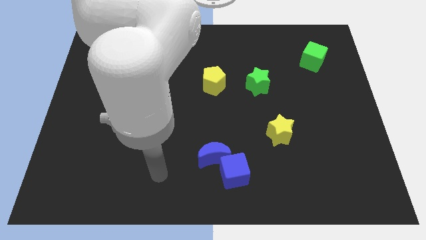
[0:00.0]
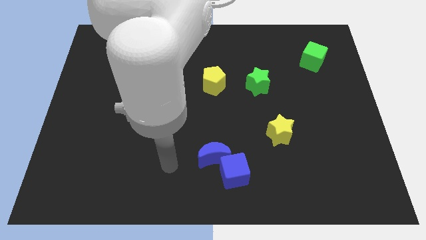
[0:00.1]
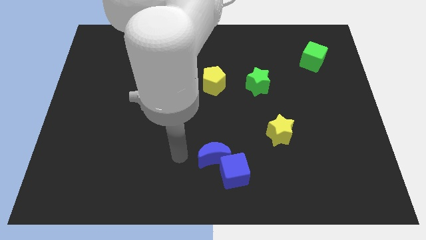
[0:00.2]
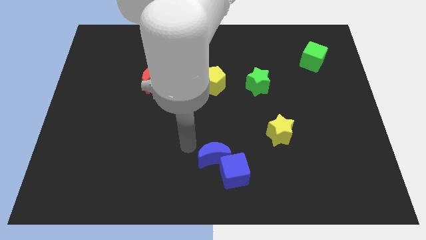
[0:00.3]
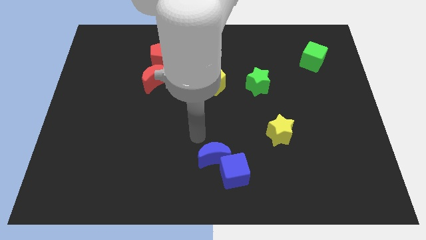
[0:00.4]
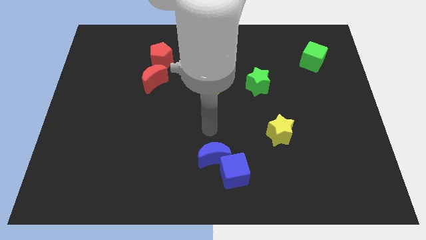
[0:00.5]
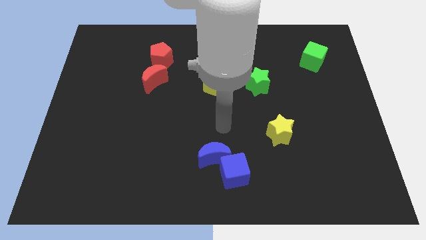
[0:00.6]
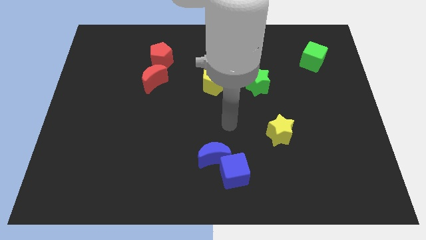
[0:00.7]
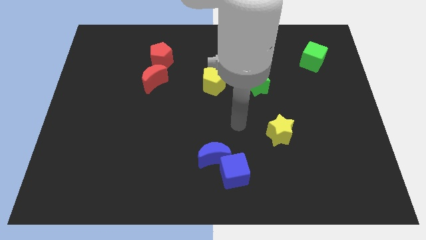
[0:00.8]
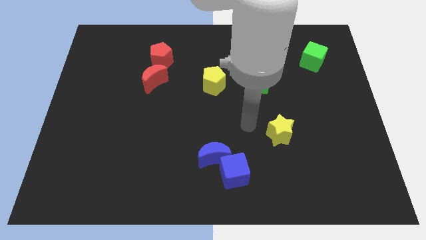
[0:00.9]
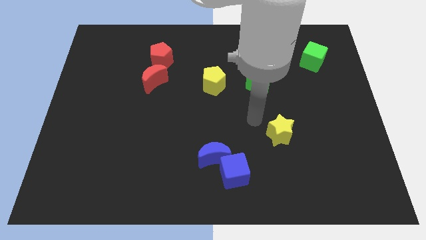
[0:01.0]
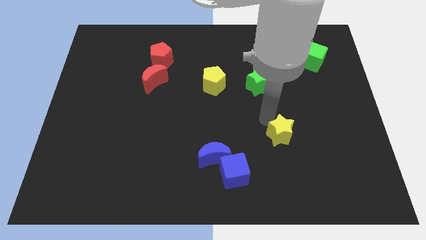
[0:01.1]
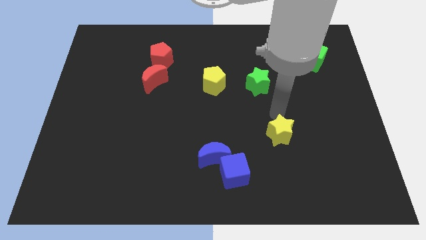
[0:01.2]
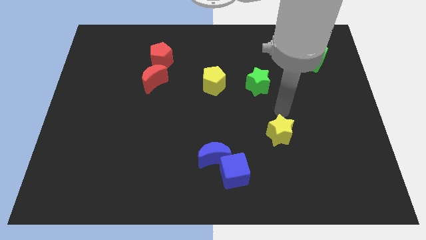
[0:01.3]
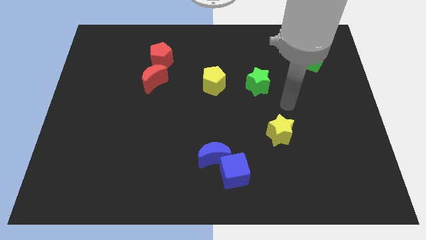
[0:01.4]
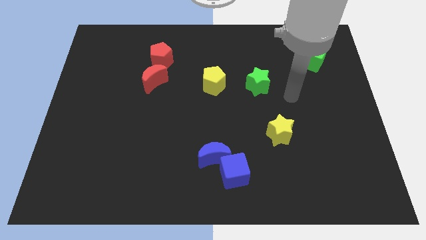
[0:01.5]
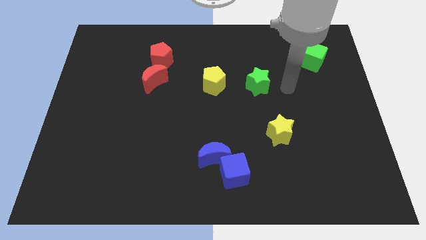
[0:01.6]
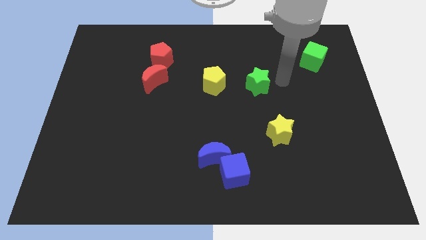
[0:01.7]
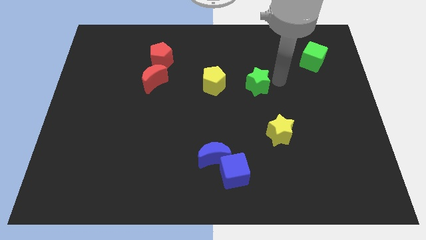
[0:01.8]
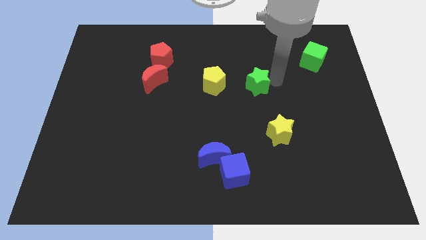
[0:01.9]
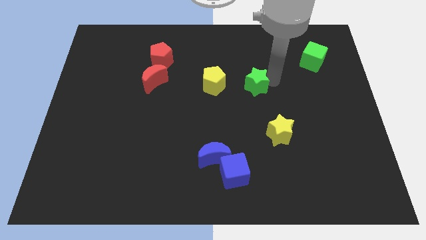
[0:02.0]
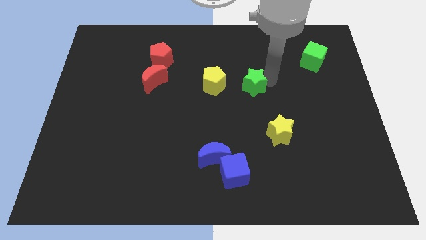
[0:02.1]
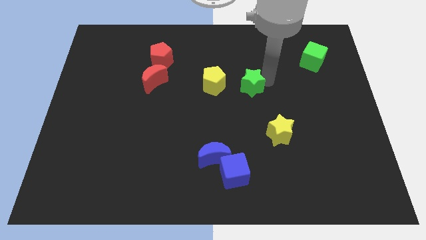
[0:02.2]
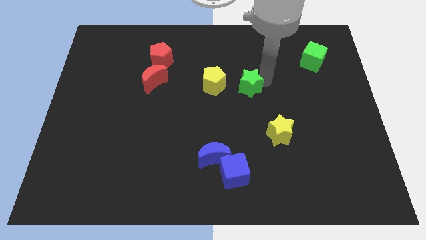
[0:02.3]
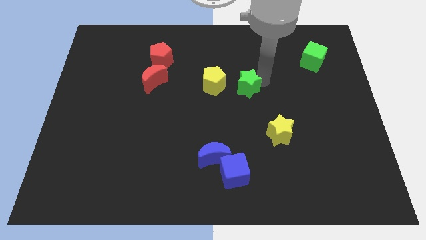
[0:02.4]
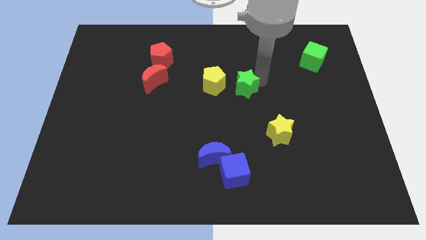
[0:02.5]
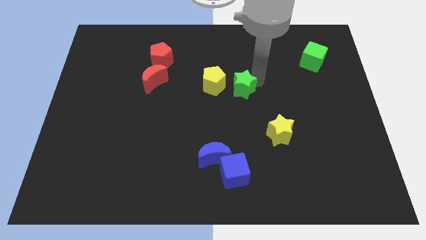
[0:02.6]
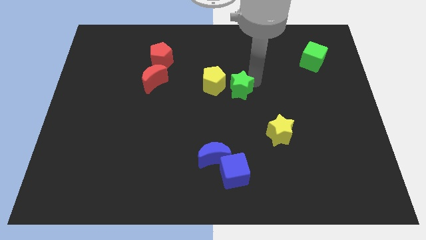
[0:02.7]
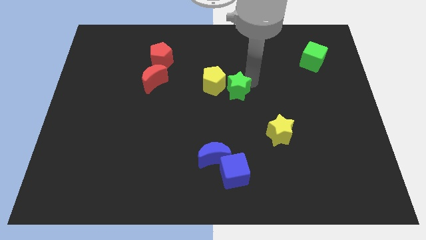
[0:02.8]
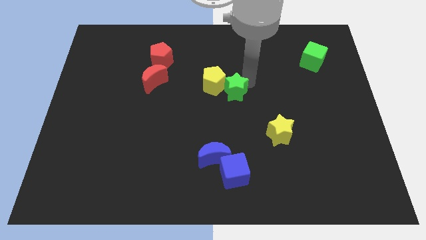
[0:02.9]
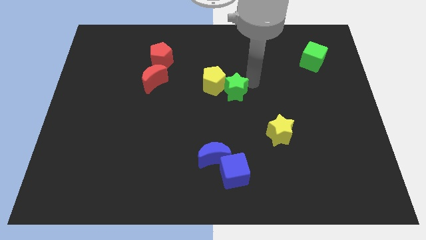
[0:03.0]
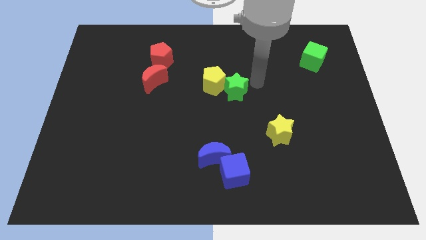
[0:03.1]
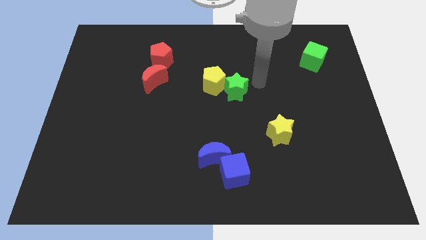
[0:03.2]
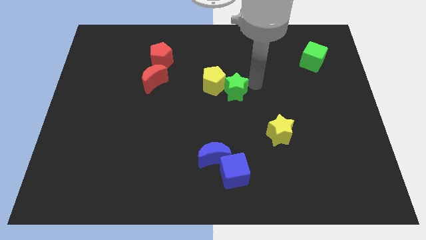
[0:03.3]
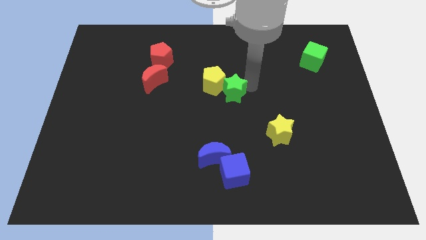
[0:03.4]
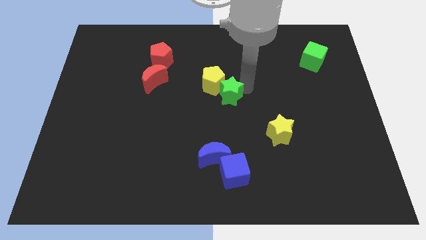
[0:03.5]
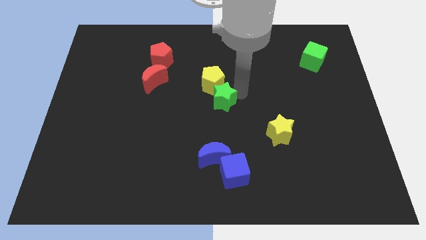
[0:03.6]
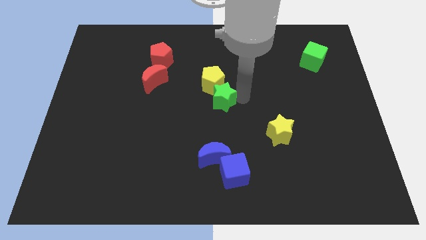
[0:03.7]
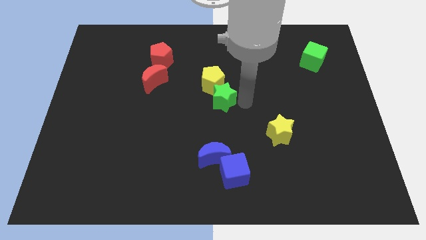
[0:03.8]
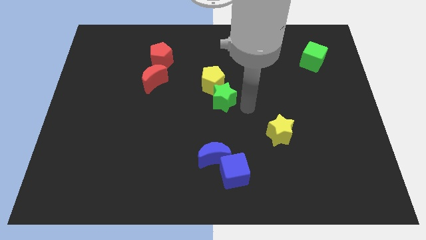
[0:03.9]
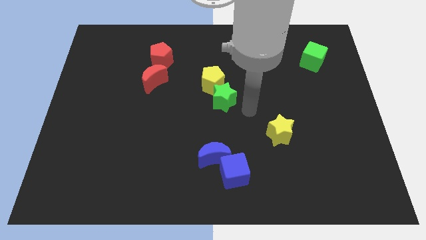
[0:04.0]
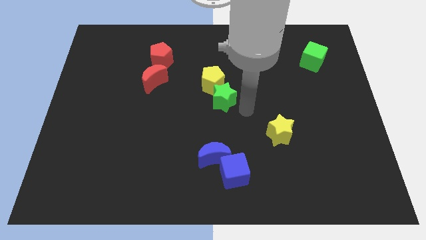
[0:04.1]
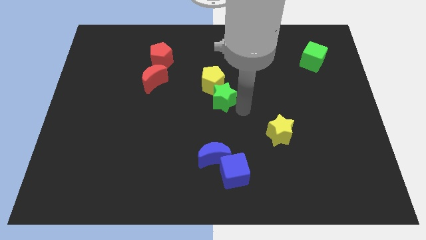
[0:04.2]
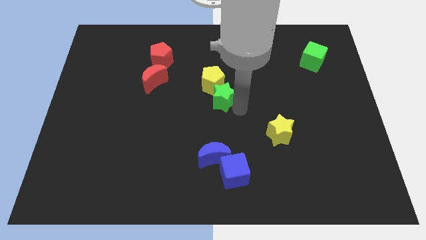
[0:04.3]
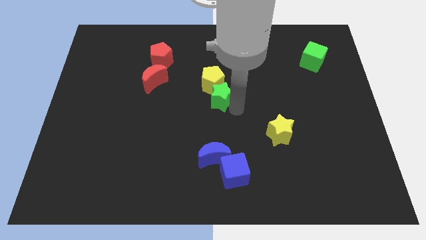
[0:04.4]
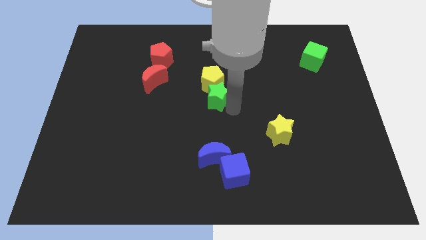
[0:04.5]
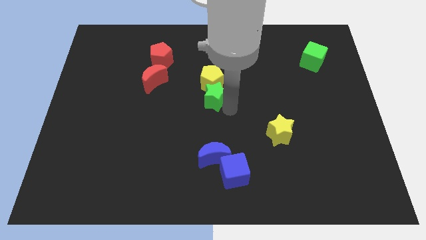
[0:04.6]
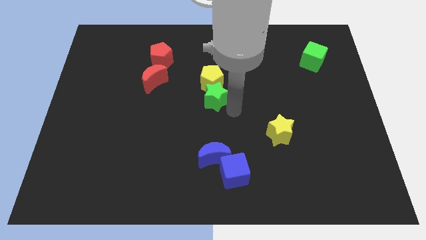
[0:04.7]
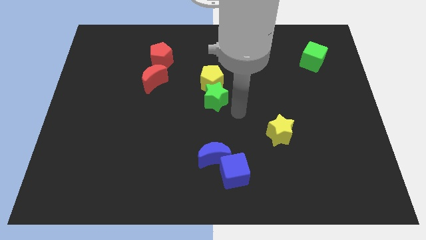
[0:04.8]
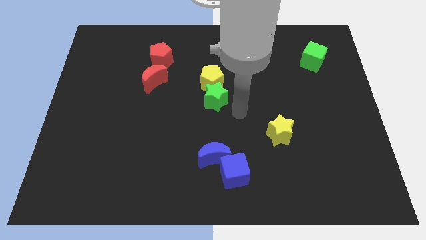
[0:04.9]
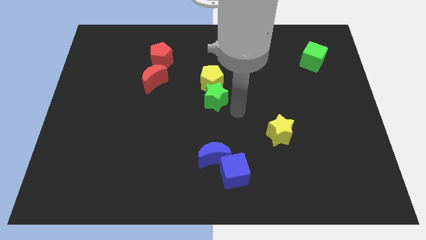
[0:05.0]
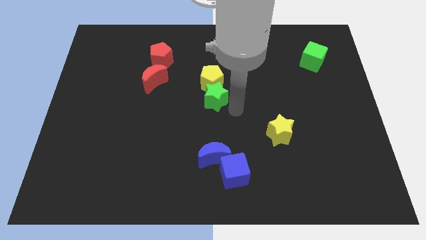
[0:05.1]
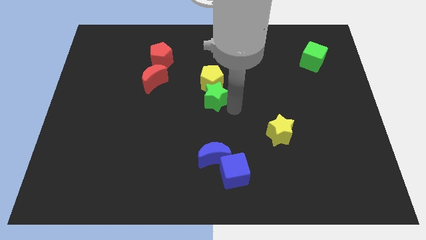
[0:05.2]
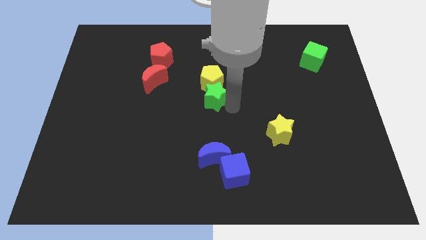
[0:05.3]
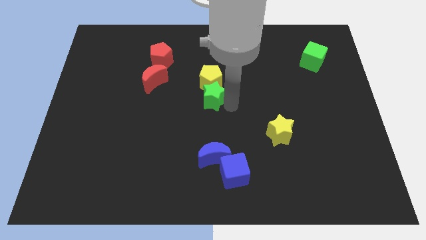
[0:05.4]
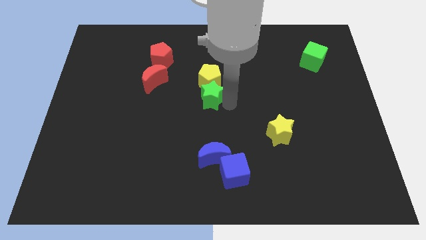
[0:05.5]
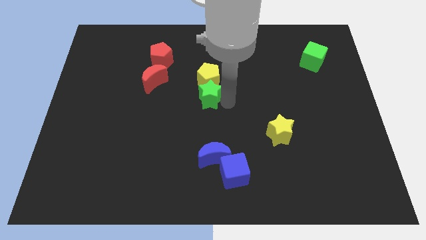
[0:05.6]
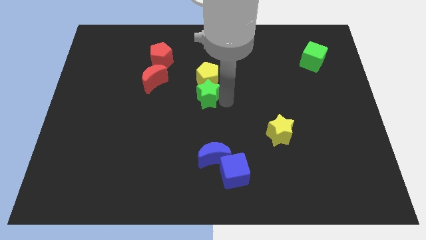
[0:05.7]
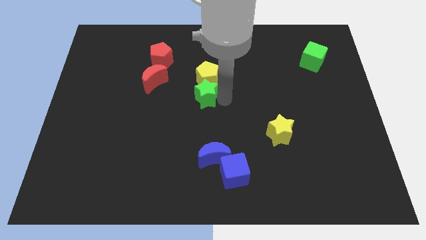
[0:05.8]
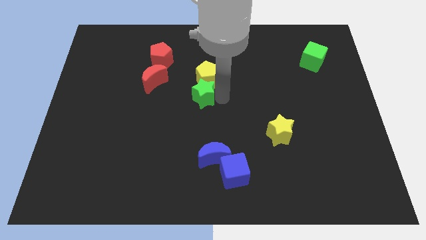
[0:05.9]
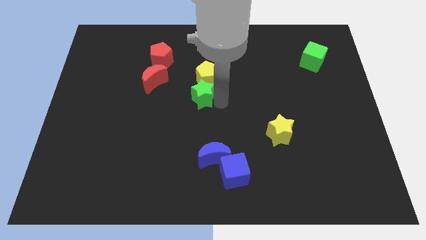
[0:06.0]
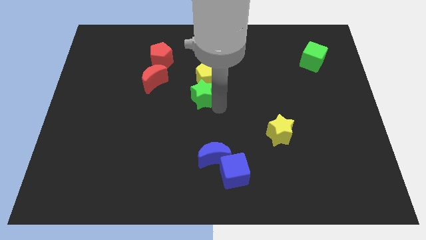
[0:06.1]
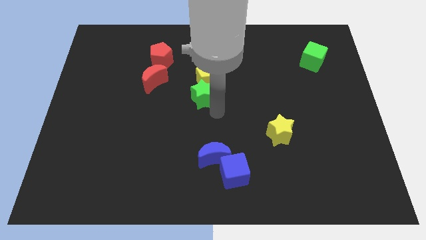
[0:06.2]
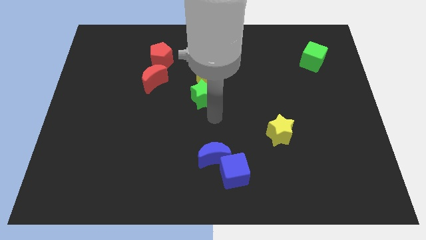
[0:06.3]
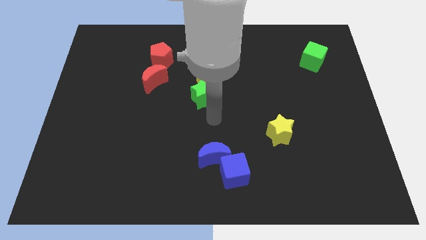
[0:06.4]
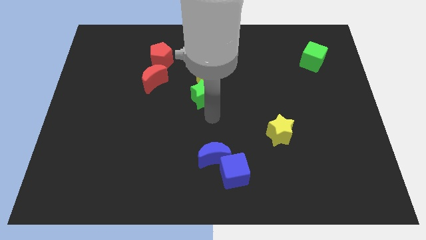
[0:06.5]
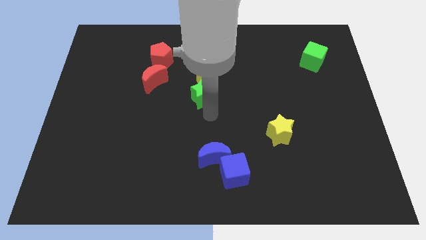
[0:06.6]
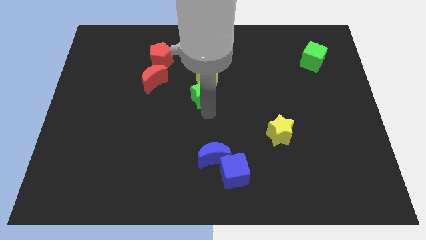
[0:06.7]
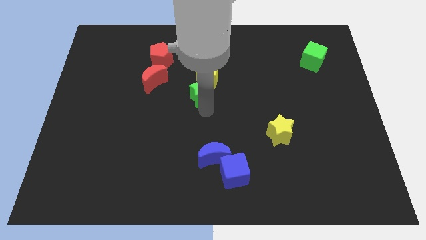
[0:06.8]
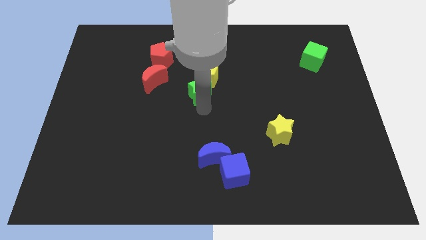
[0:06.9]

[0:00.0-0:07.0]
put the green star just right of the red moon
